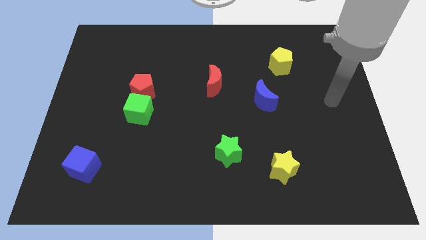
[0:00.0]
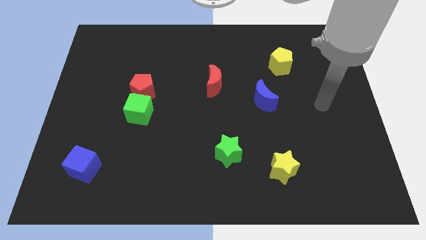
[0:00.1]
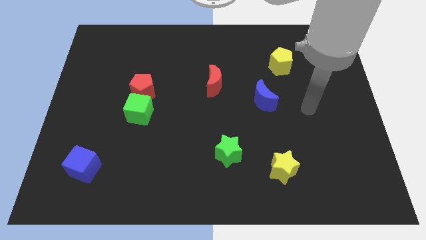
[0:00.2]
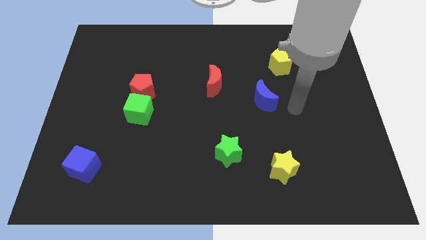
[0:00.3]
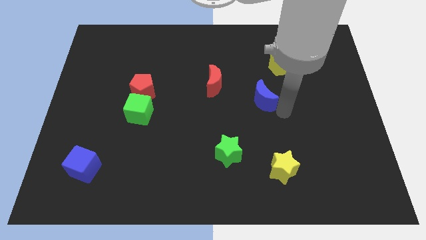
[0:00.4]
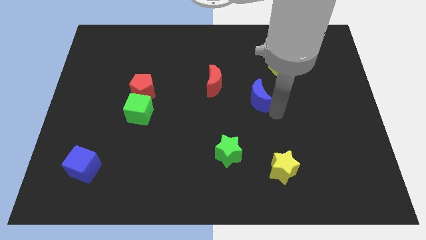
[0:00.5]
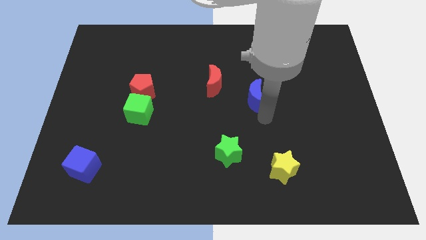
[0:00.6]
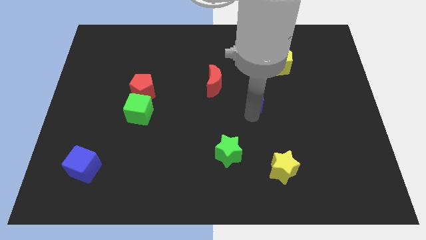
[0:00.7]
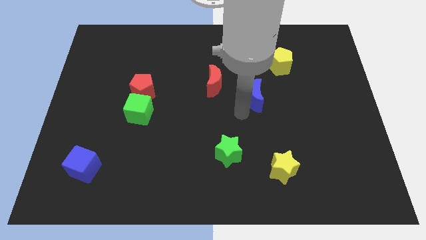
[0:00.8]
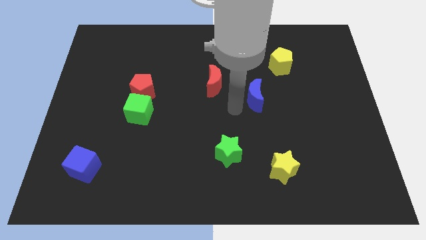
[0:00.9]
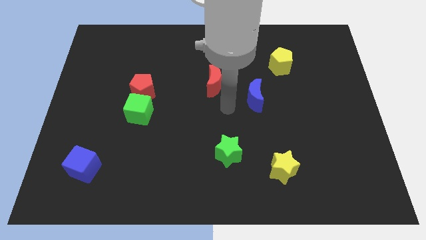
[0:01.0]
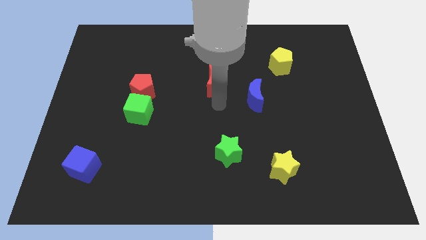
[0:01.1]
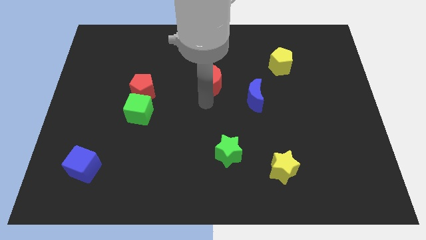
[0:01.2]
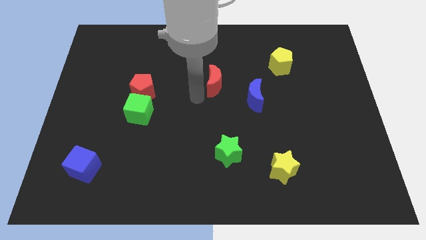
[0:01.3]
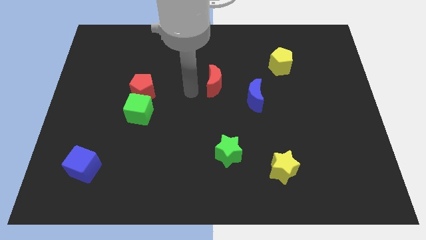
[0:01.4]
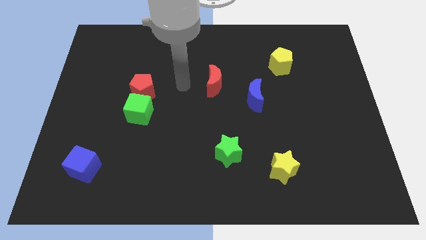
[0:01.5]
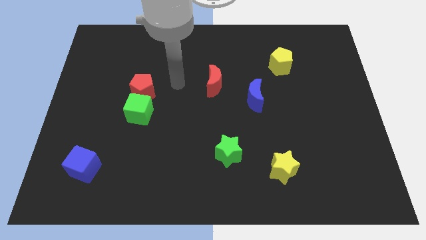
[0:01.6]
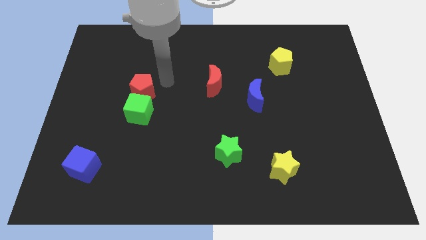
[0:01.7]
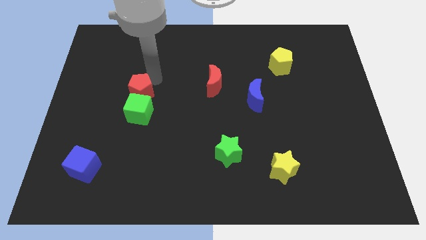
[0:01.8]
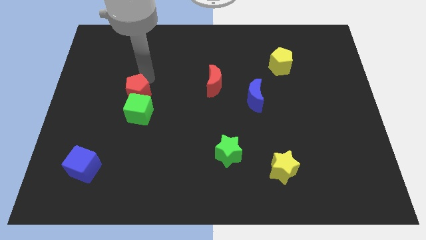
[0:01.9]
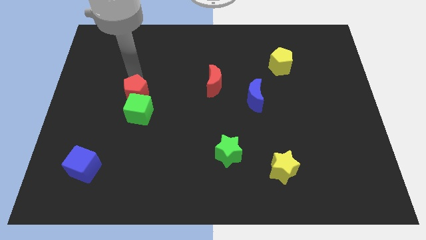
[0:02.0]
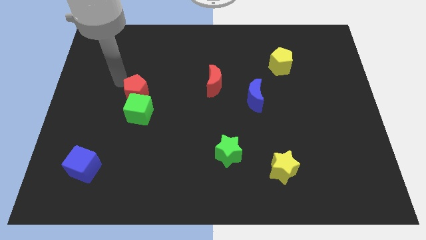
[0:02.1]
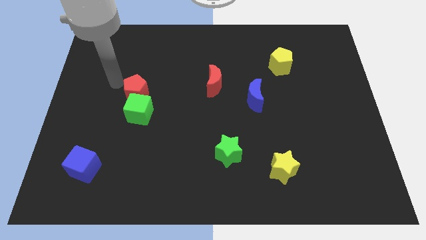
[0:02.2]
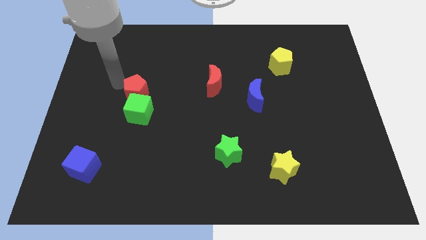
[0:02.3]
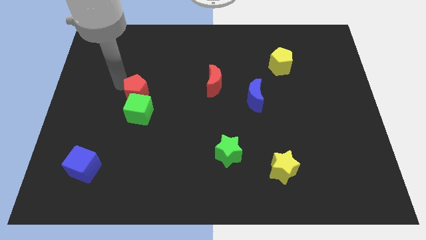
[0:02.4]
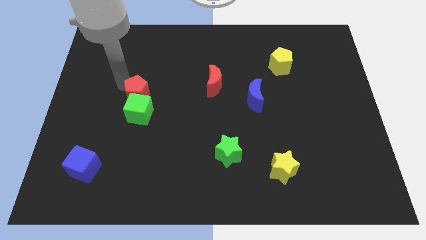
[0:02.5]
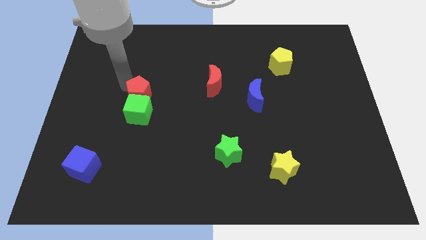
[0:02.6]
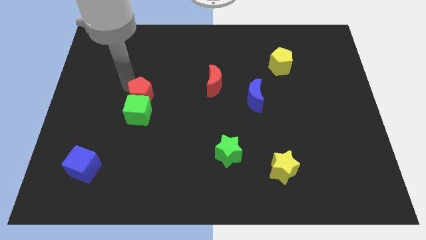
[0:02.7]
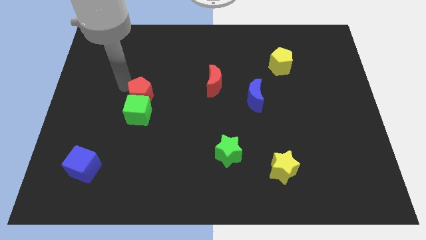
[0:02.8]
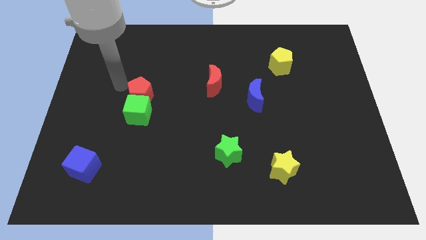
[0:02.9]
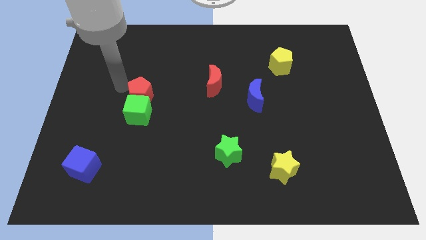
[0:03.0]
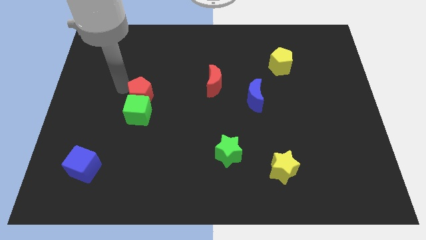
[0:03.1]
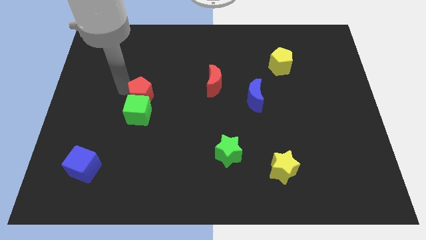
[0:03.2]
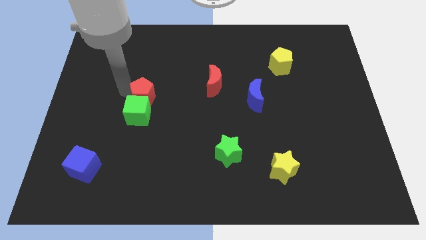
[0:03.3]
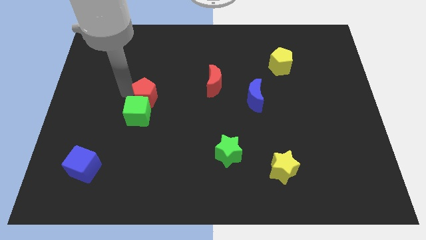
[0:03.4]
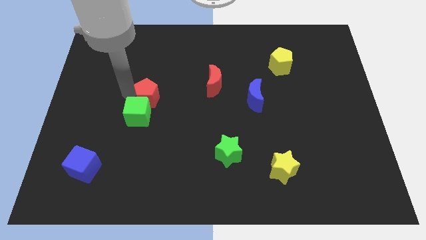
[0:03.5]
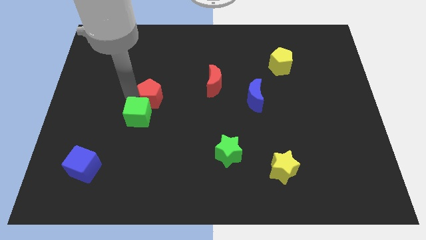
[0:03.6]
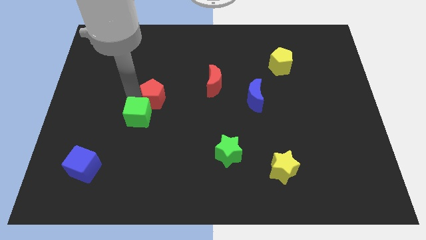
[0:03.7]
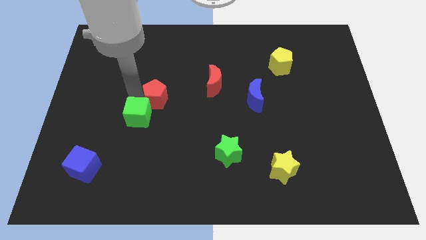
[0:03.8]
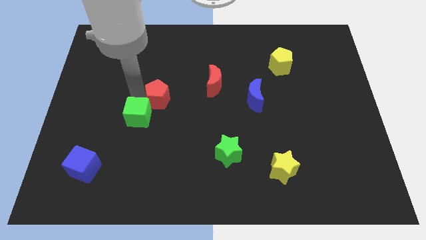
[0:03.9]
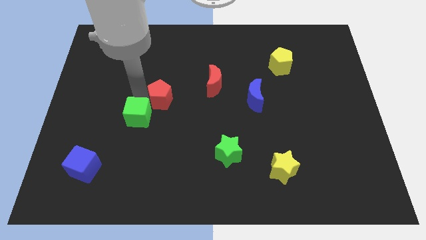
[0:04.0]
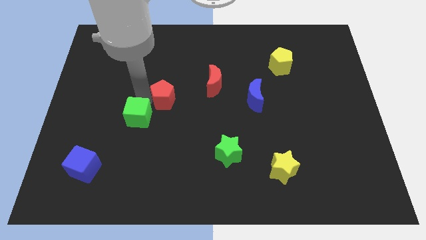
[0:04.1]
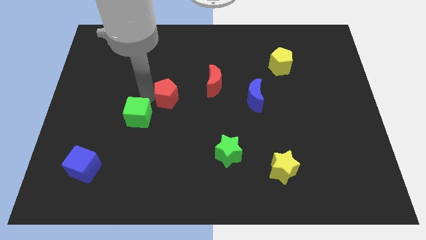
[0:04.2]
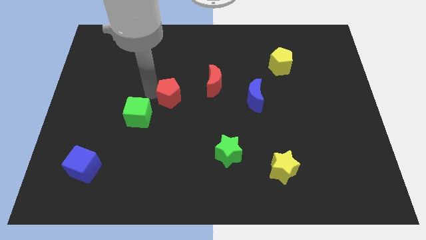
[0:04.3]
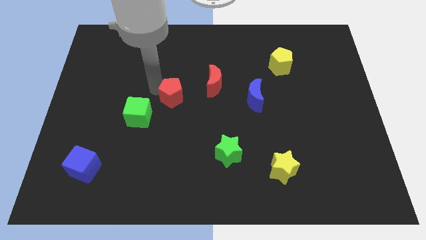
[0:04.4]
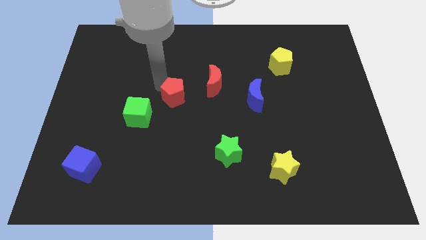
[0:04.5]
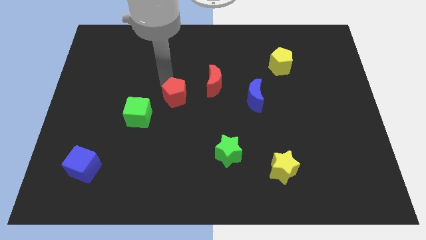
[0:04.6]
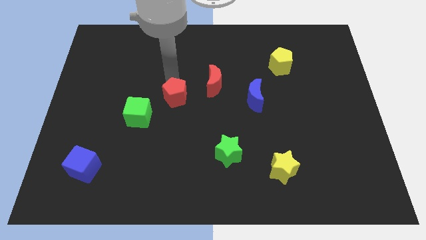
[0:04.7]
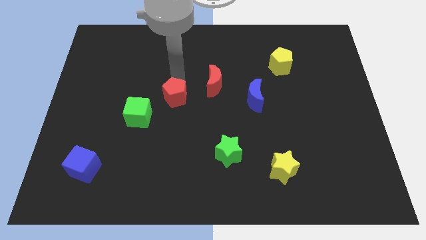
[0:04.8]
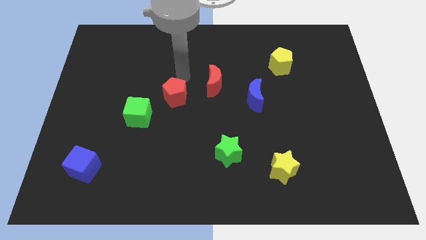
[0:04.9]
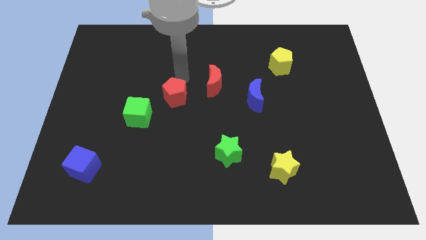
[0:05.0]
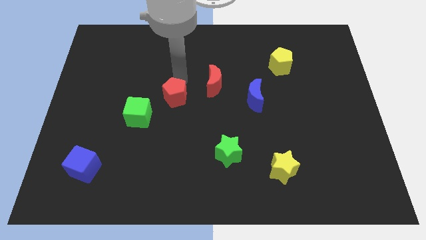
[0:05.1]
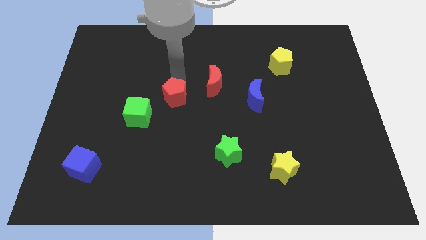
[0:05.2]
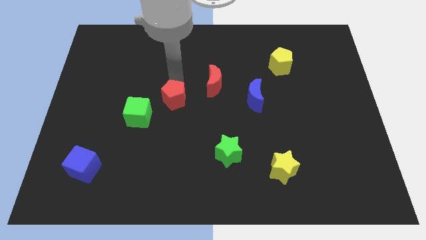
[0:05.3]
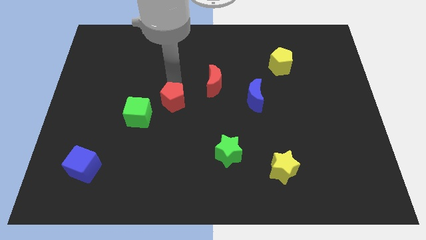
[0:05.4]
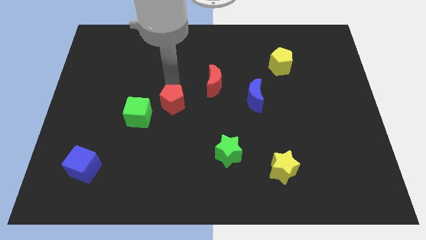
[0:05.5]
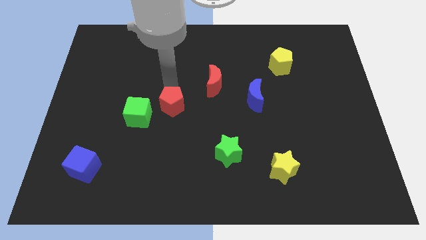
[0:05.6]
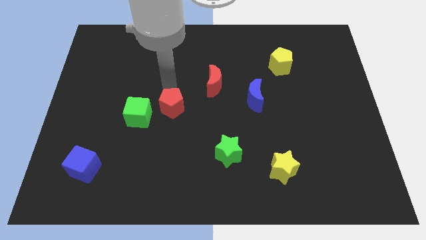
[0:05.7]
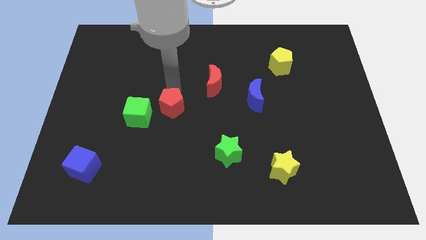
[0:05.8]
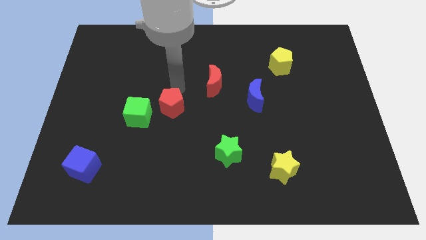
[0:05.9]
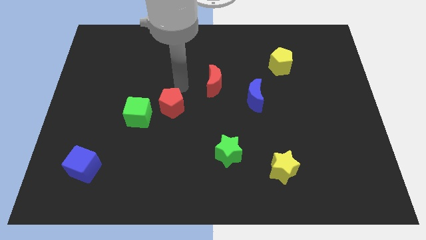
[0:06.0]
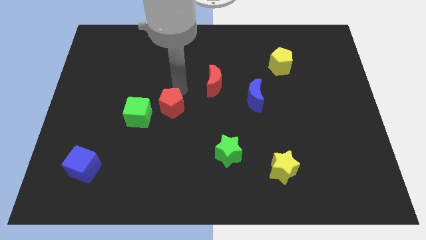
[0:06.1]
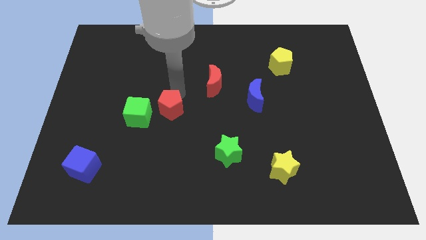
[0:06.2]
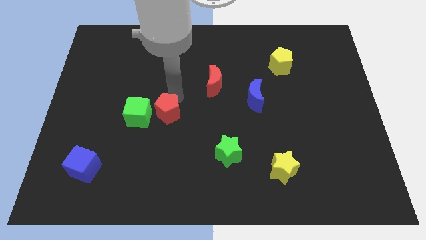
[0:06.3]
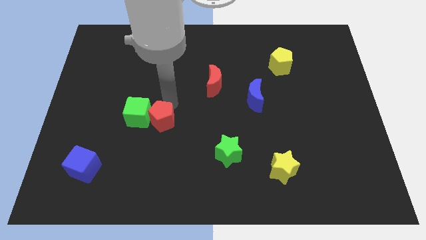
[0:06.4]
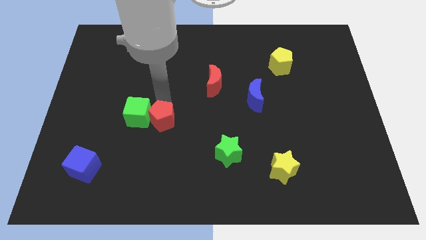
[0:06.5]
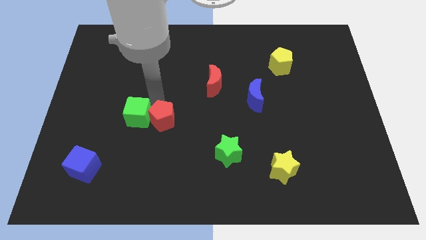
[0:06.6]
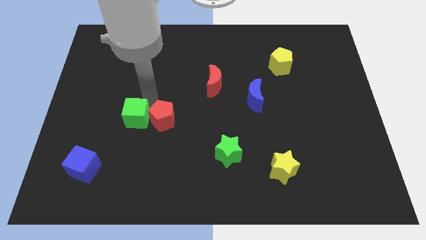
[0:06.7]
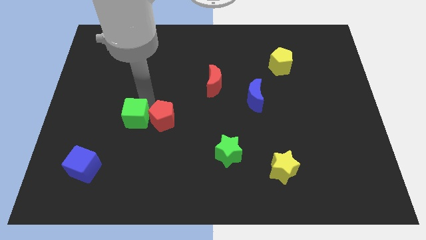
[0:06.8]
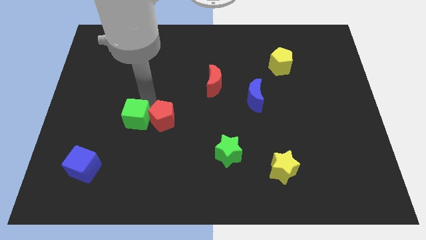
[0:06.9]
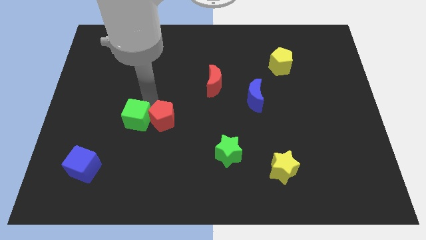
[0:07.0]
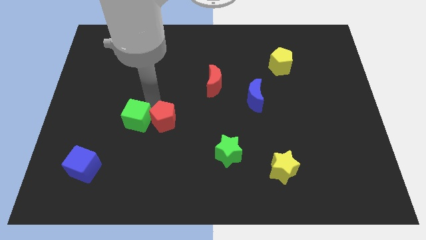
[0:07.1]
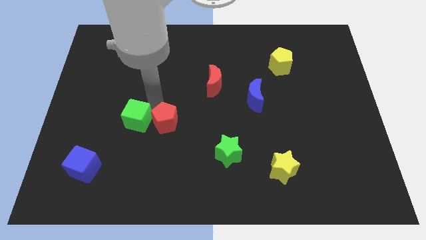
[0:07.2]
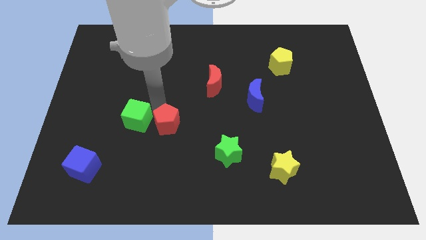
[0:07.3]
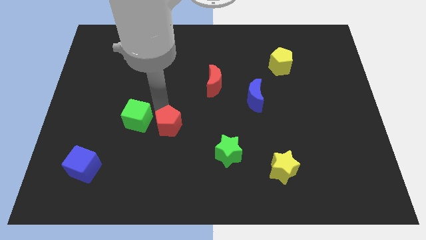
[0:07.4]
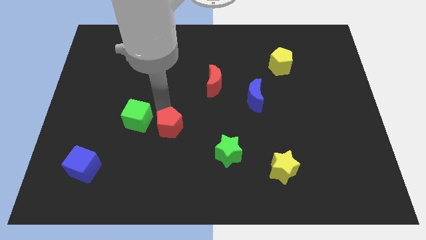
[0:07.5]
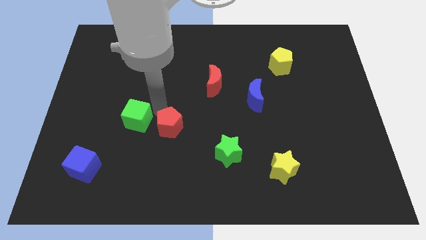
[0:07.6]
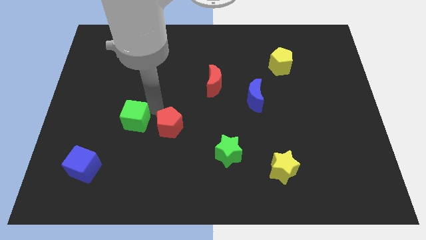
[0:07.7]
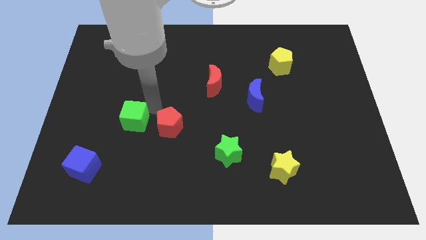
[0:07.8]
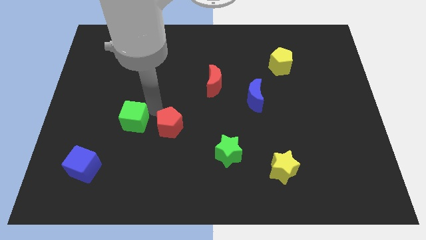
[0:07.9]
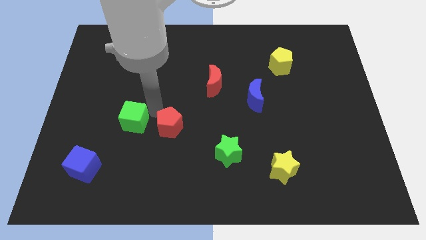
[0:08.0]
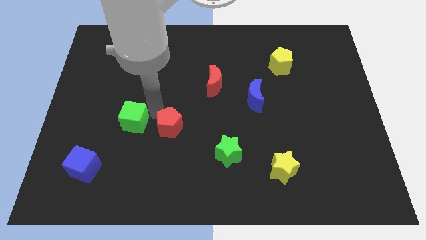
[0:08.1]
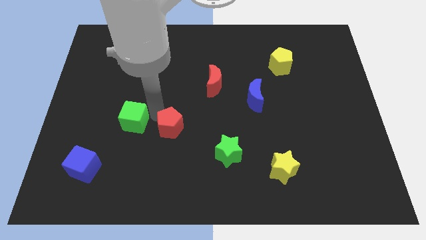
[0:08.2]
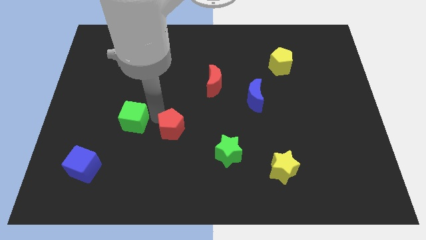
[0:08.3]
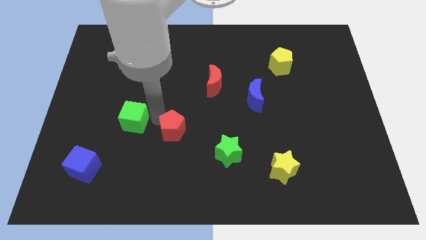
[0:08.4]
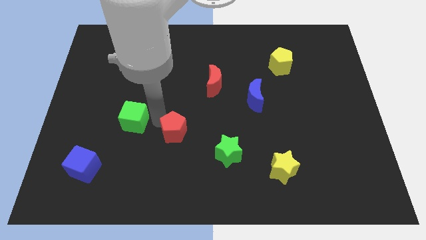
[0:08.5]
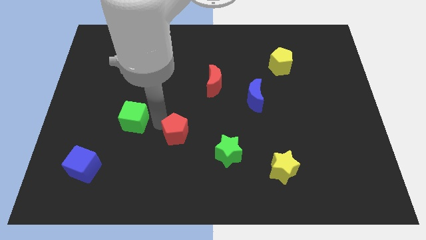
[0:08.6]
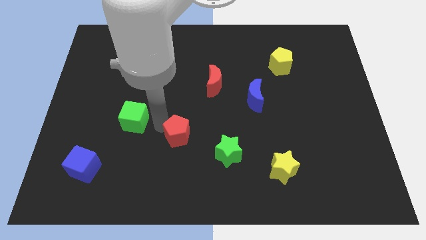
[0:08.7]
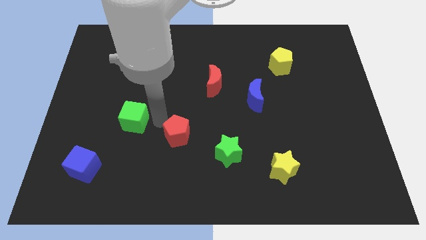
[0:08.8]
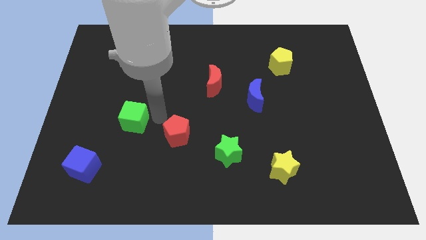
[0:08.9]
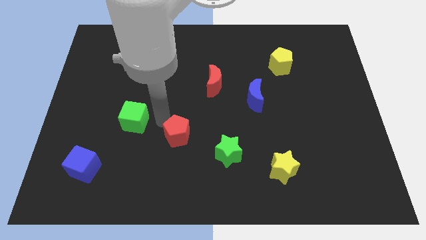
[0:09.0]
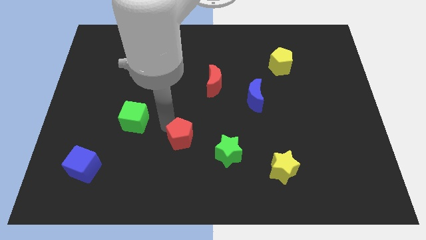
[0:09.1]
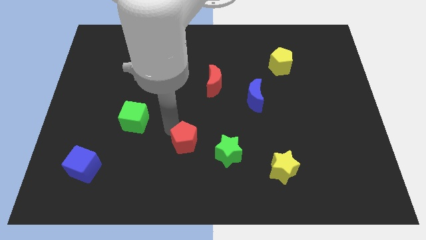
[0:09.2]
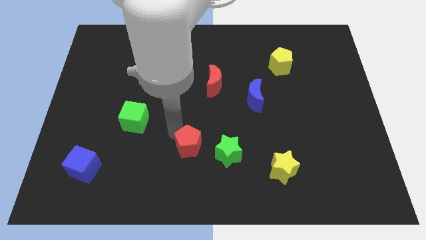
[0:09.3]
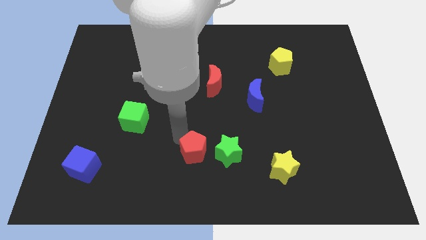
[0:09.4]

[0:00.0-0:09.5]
slide the red pentagon downwards and then right
